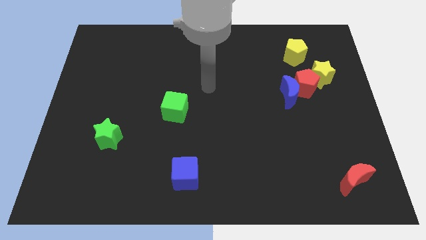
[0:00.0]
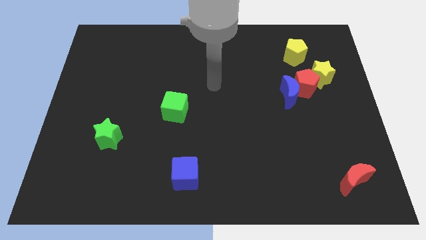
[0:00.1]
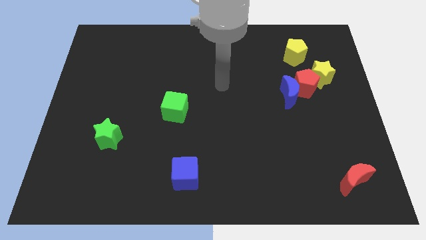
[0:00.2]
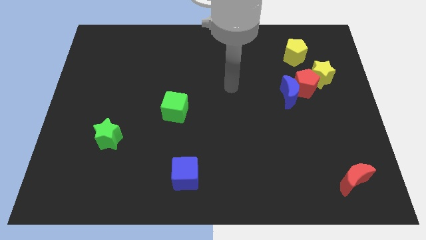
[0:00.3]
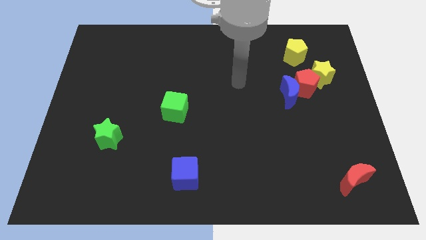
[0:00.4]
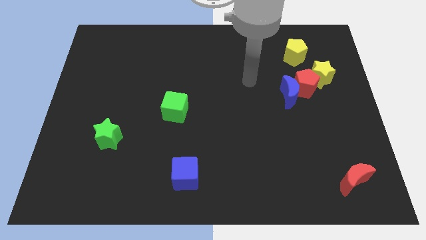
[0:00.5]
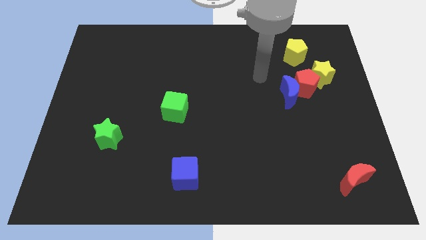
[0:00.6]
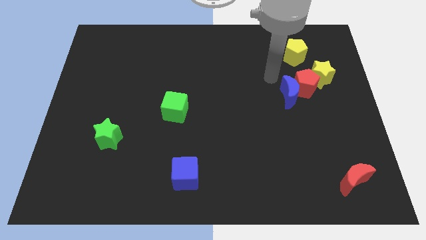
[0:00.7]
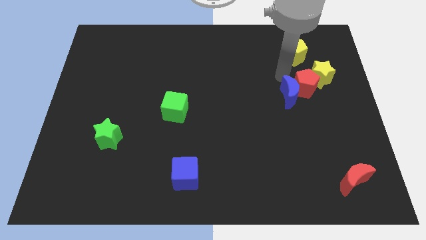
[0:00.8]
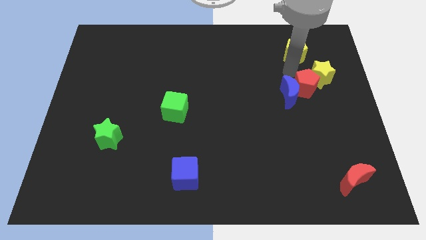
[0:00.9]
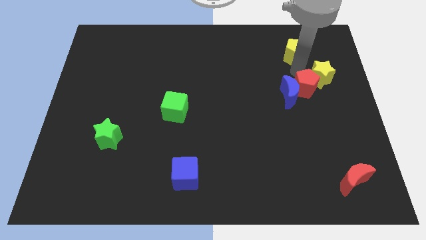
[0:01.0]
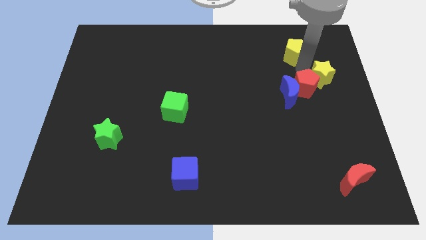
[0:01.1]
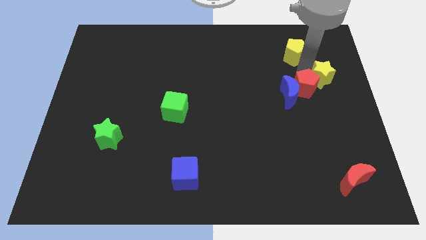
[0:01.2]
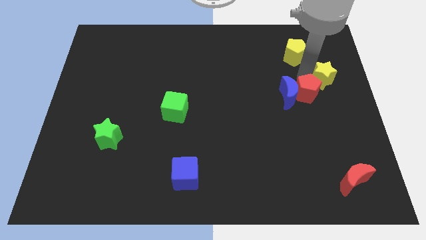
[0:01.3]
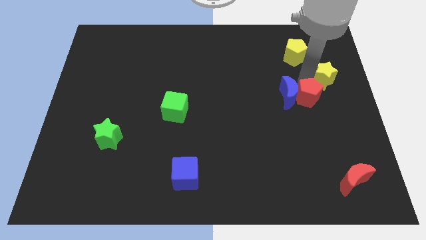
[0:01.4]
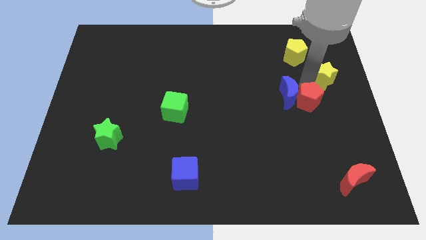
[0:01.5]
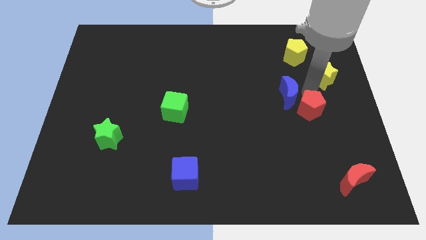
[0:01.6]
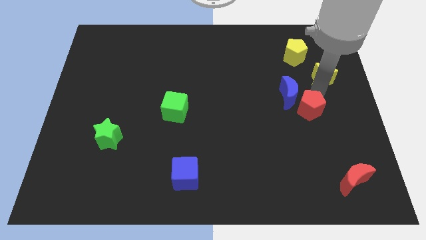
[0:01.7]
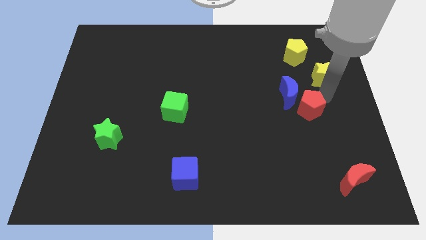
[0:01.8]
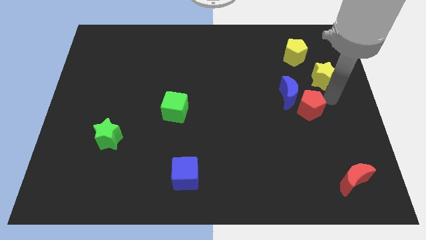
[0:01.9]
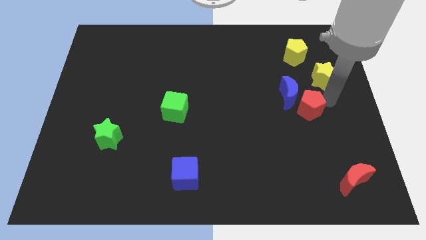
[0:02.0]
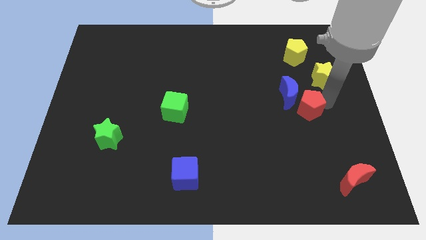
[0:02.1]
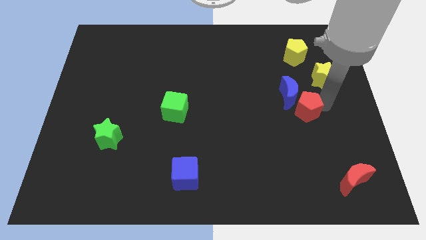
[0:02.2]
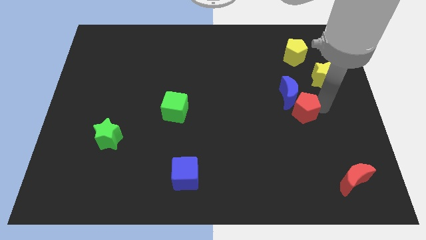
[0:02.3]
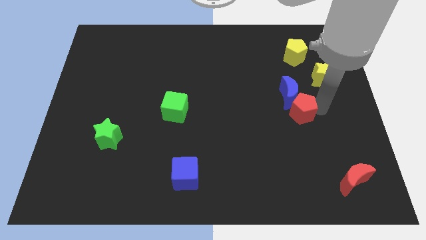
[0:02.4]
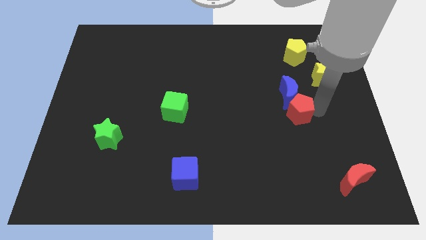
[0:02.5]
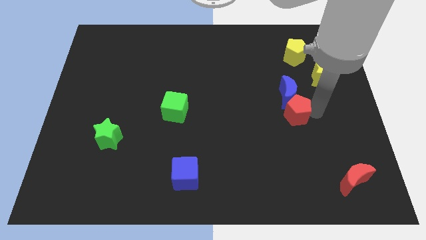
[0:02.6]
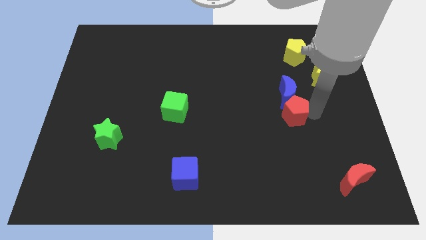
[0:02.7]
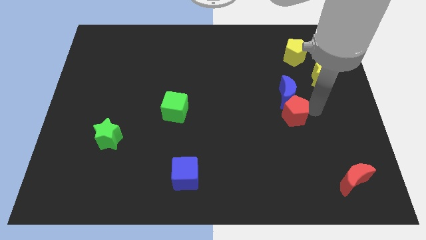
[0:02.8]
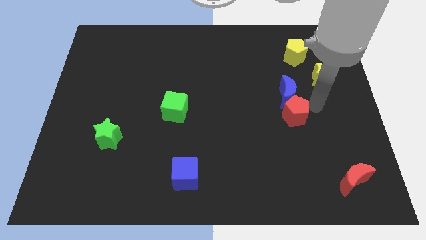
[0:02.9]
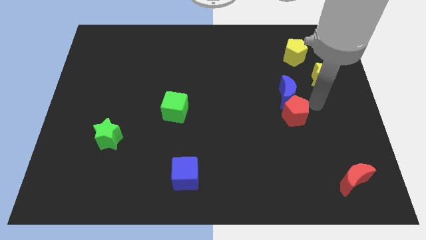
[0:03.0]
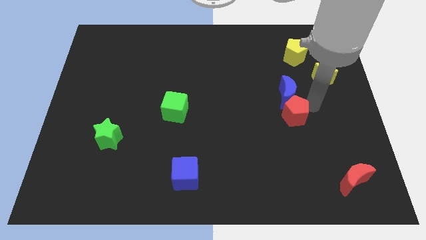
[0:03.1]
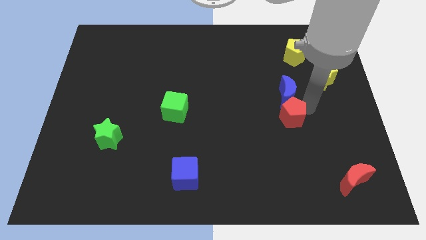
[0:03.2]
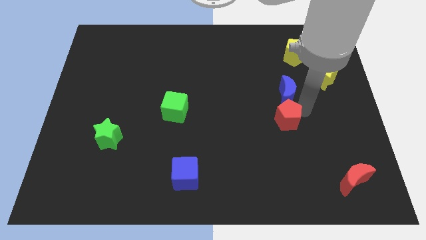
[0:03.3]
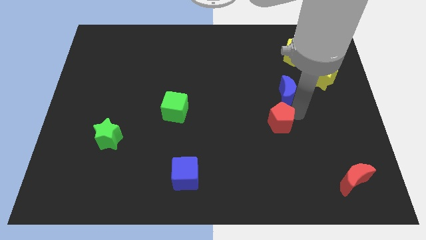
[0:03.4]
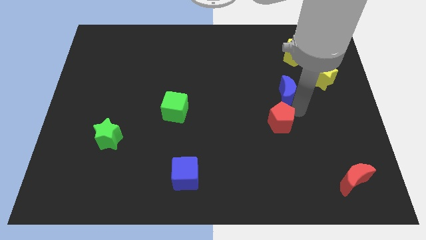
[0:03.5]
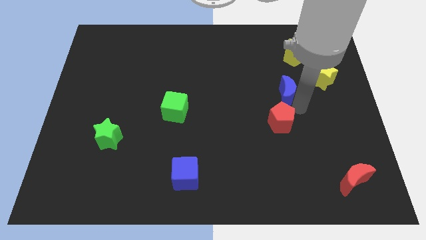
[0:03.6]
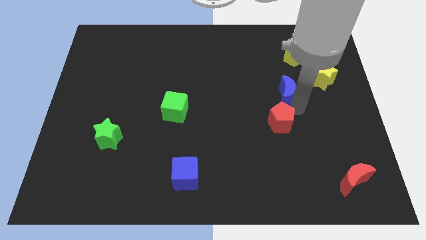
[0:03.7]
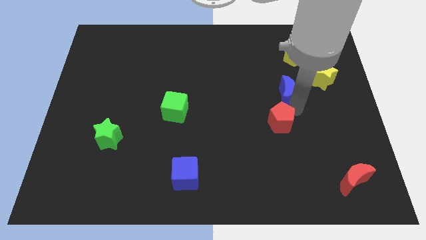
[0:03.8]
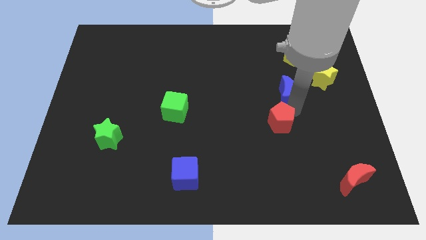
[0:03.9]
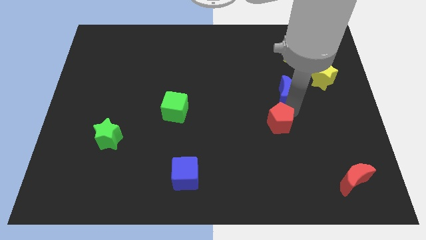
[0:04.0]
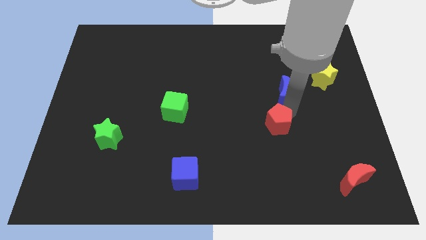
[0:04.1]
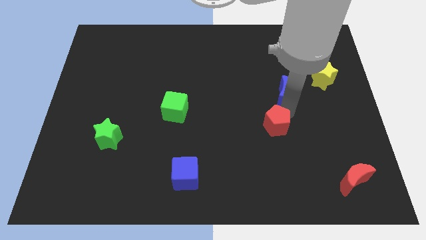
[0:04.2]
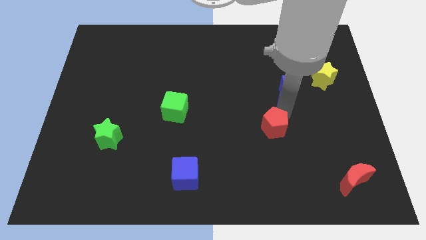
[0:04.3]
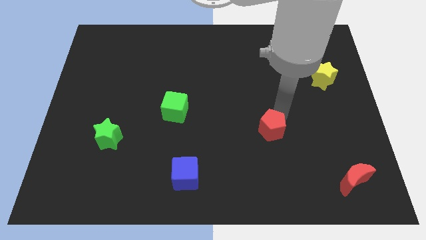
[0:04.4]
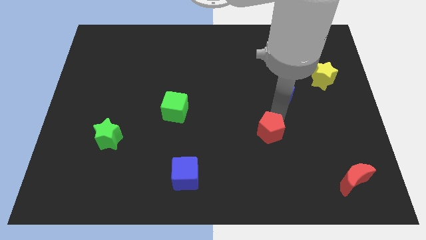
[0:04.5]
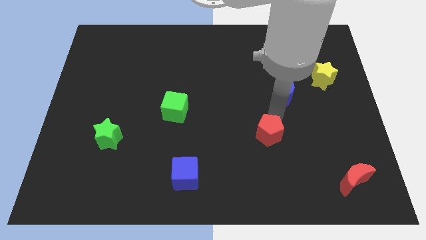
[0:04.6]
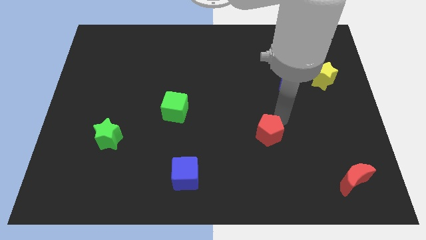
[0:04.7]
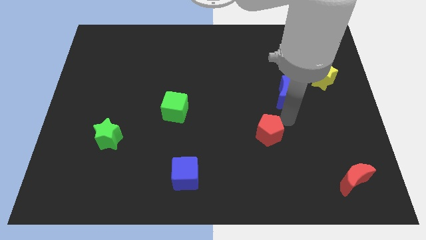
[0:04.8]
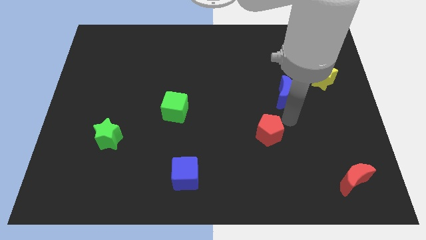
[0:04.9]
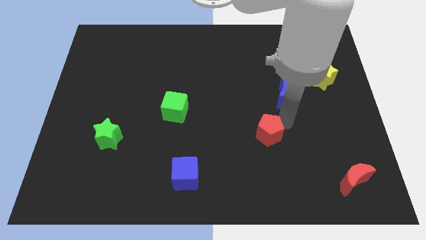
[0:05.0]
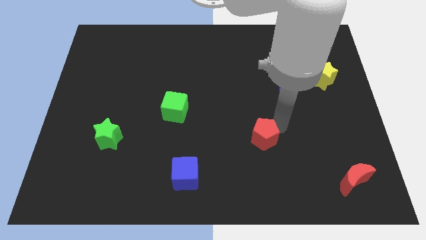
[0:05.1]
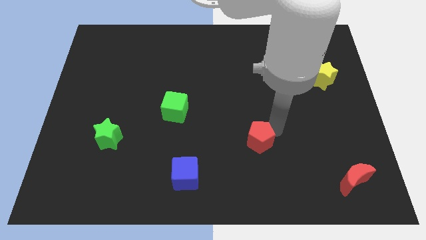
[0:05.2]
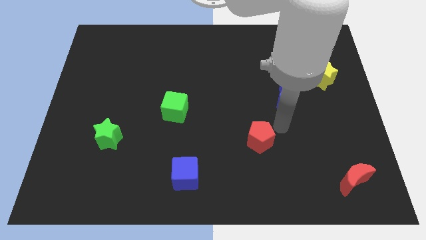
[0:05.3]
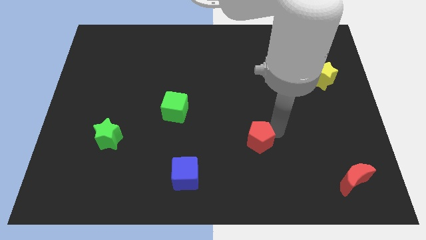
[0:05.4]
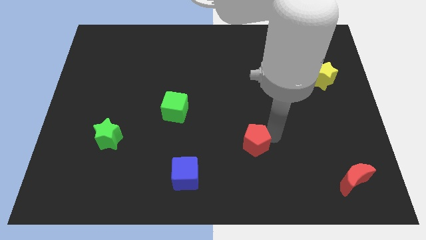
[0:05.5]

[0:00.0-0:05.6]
slide the red pentagon down and to the left diagonally

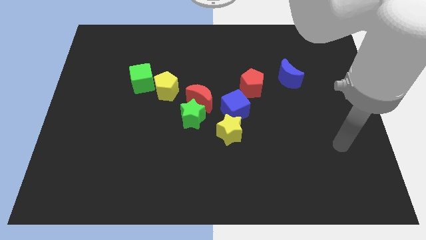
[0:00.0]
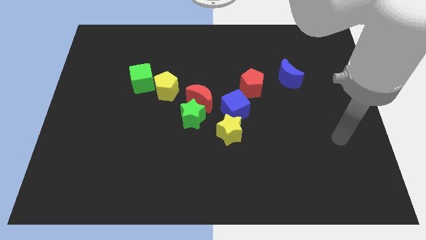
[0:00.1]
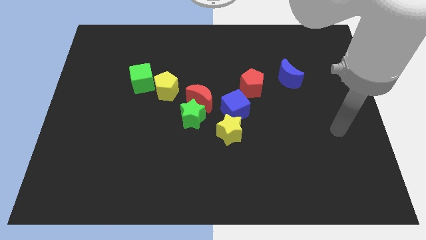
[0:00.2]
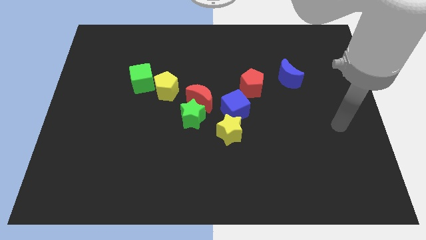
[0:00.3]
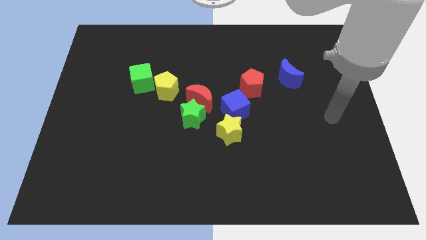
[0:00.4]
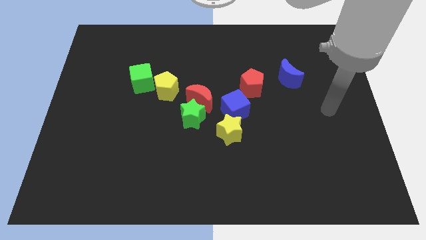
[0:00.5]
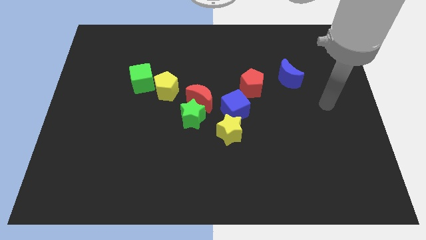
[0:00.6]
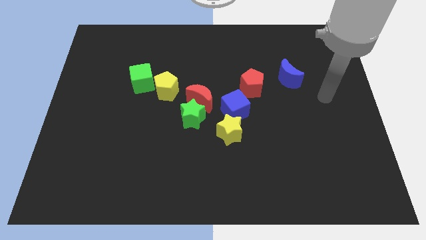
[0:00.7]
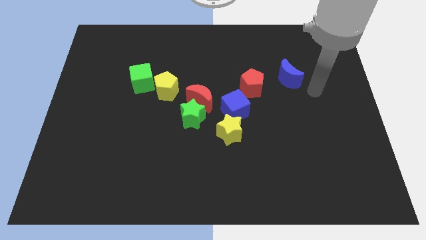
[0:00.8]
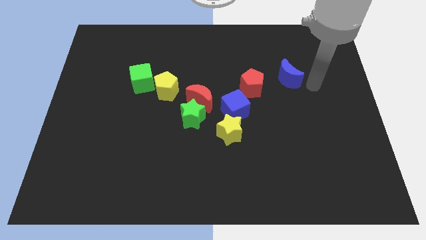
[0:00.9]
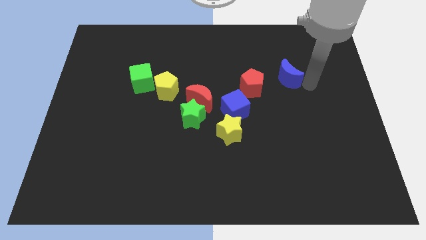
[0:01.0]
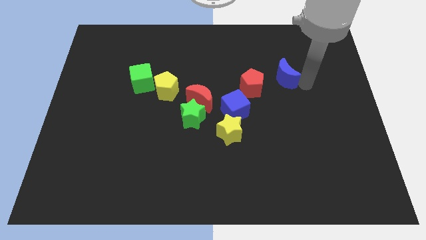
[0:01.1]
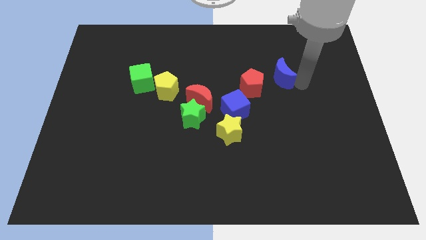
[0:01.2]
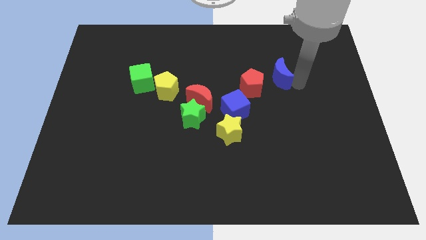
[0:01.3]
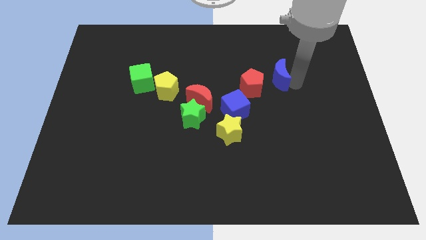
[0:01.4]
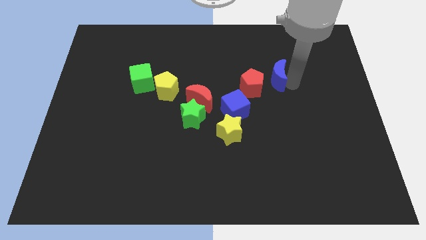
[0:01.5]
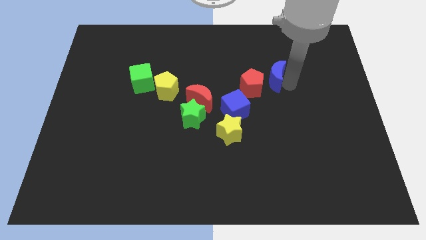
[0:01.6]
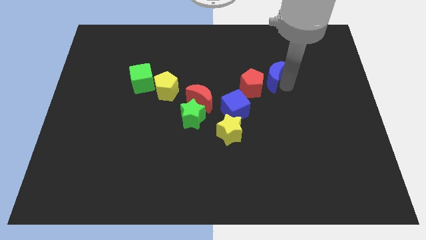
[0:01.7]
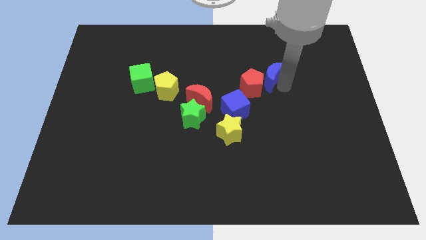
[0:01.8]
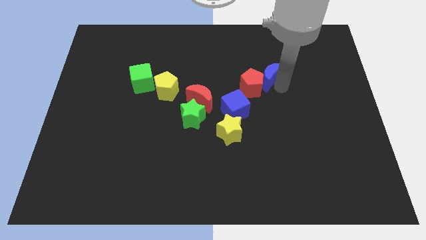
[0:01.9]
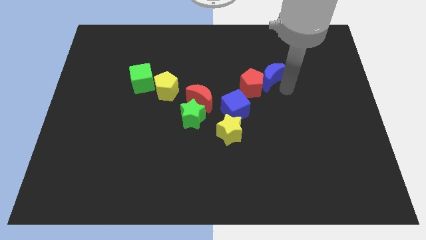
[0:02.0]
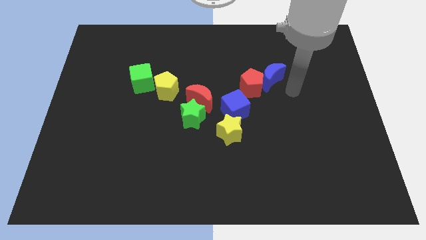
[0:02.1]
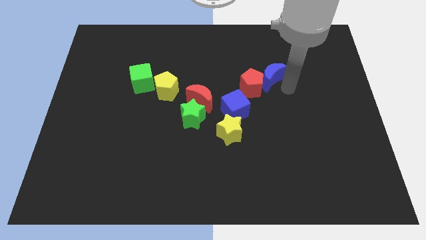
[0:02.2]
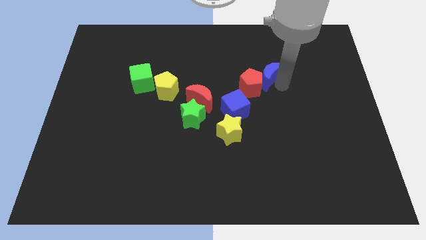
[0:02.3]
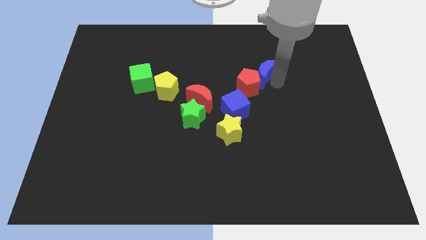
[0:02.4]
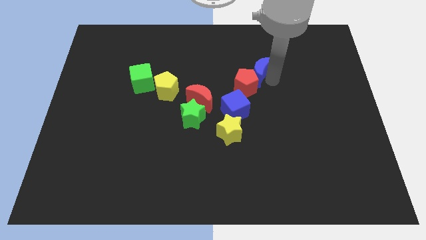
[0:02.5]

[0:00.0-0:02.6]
slide the blue moon left a little bit

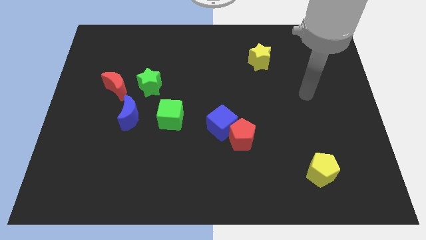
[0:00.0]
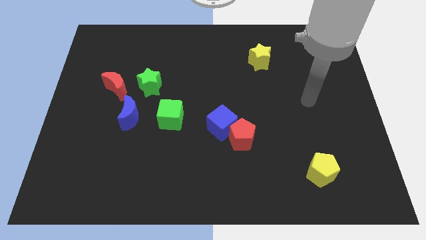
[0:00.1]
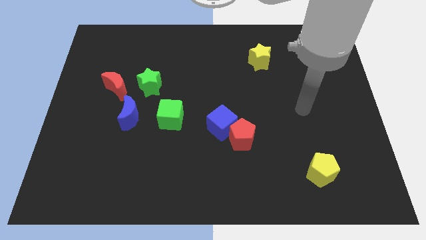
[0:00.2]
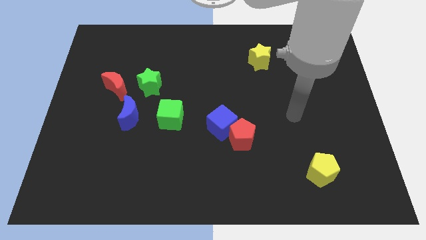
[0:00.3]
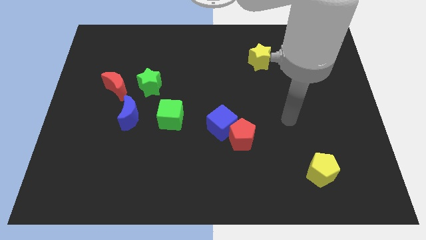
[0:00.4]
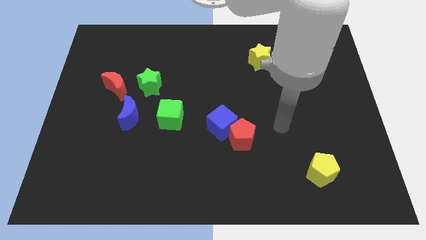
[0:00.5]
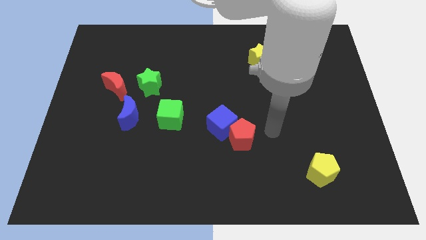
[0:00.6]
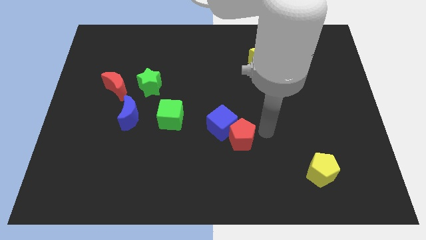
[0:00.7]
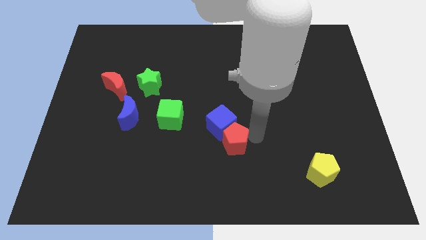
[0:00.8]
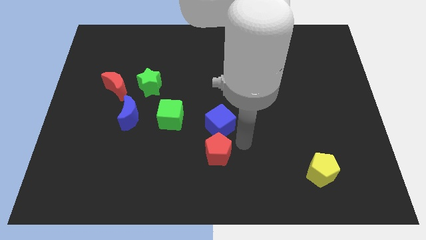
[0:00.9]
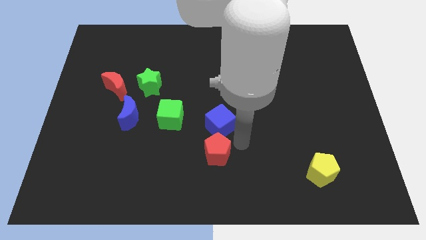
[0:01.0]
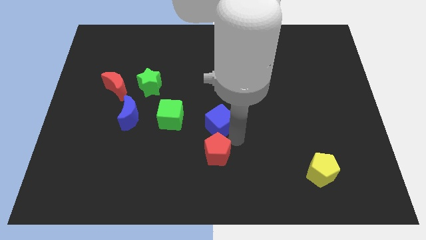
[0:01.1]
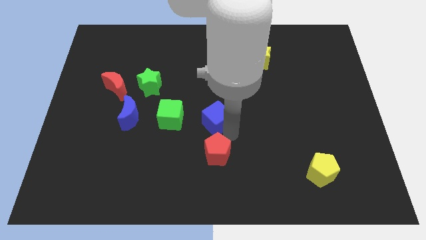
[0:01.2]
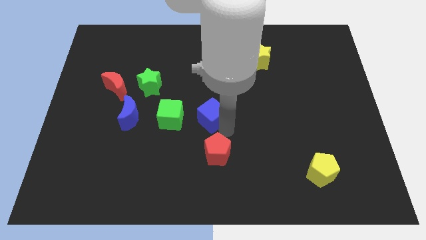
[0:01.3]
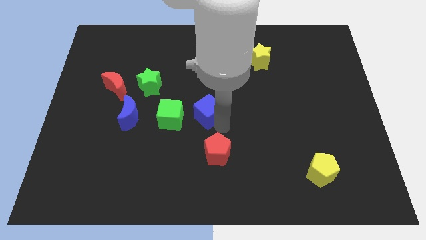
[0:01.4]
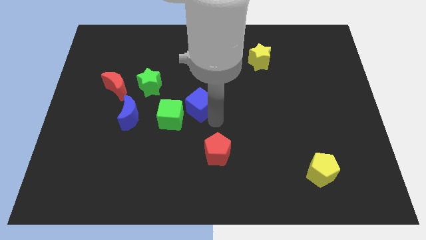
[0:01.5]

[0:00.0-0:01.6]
push the blue cube diagonally upwards and left slightly
